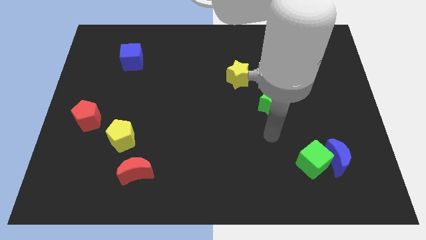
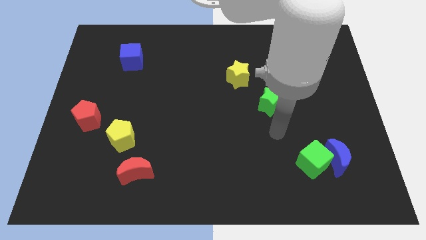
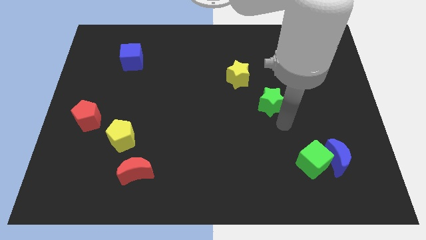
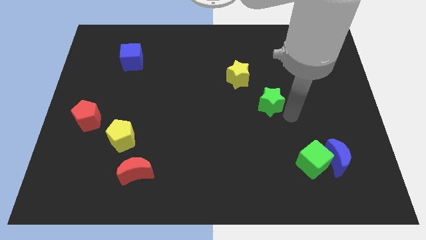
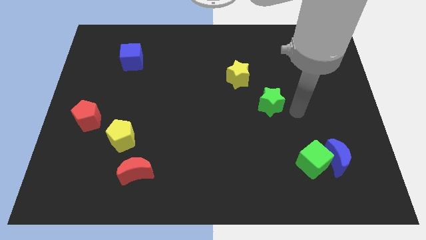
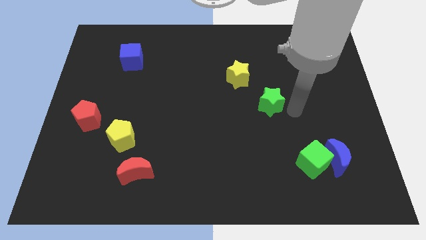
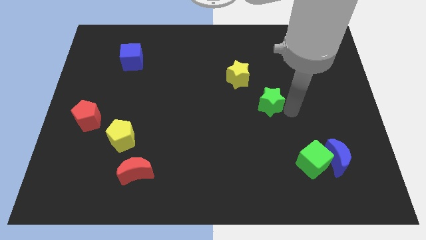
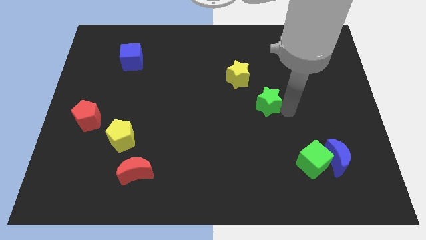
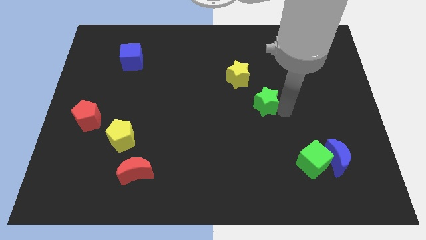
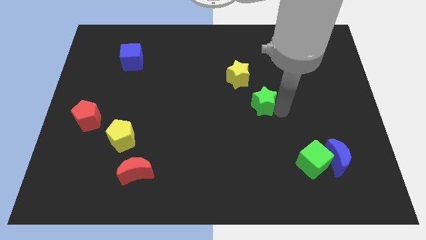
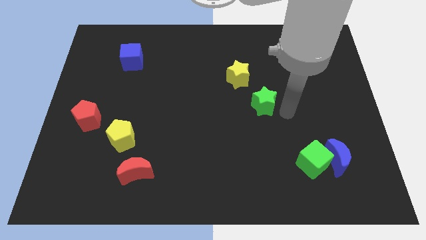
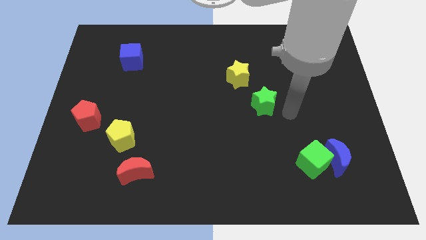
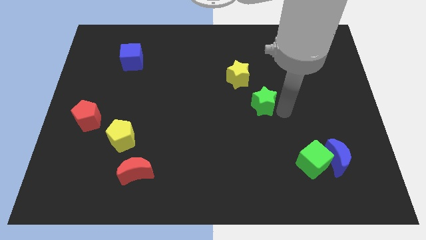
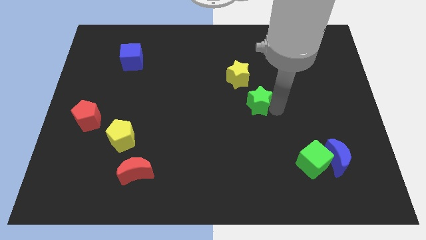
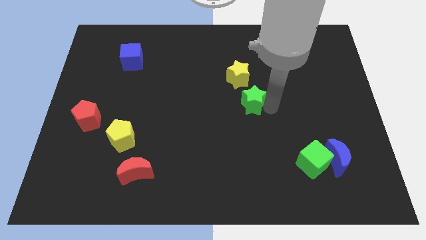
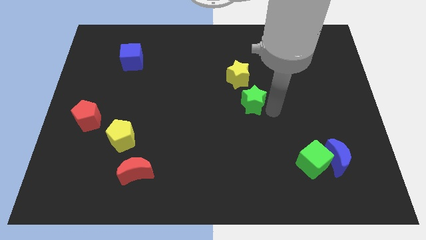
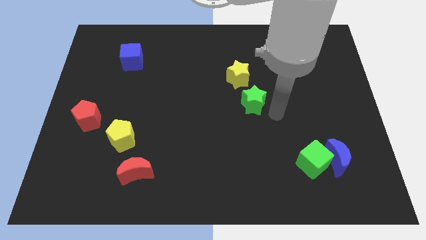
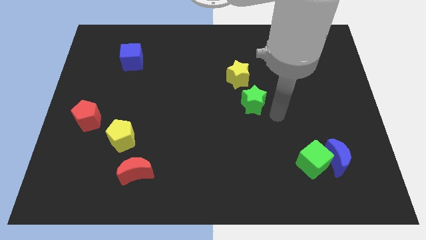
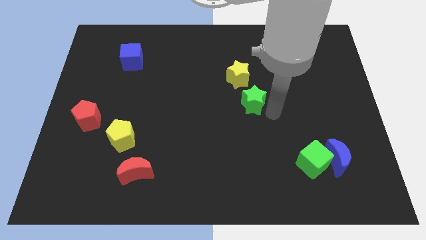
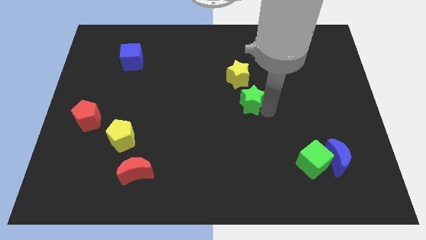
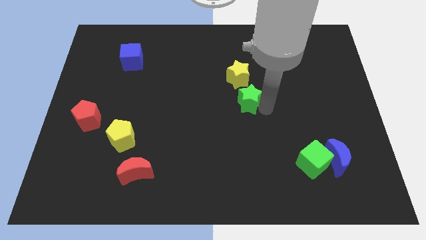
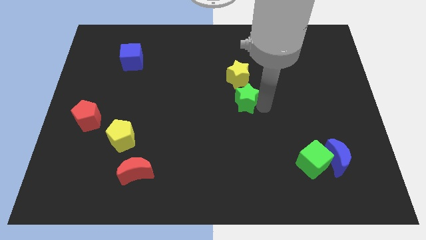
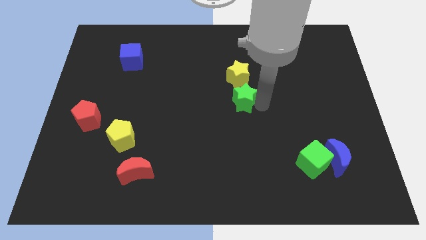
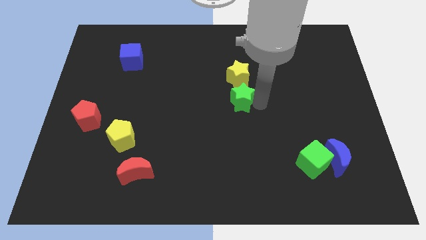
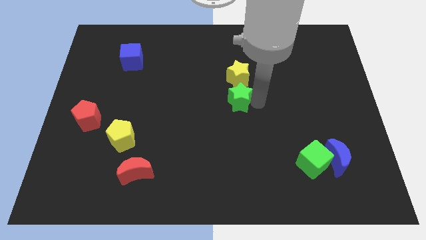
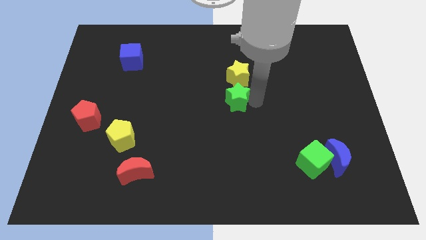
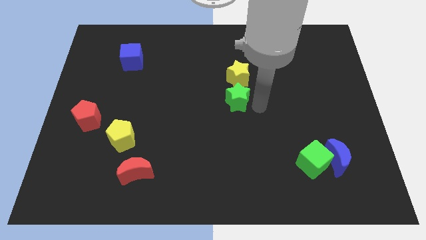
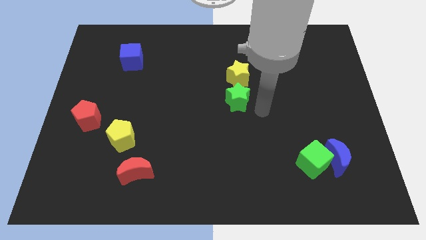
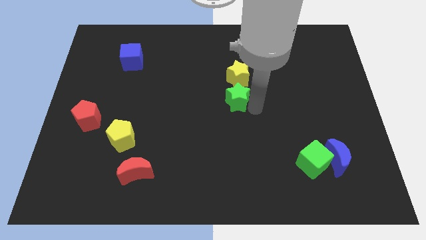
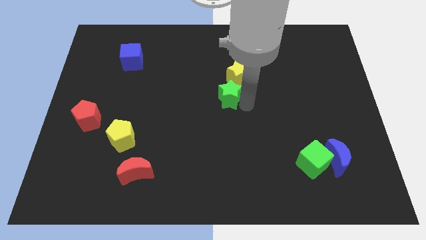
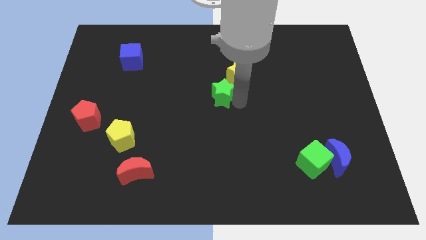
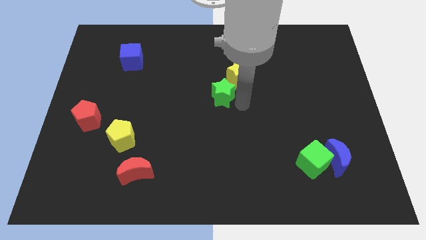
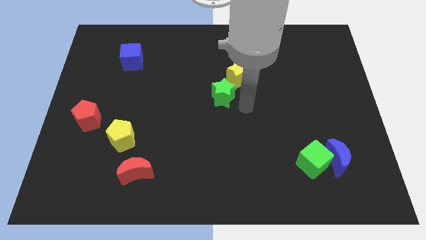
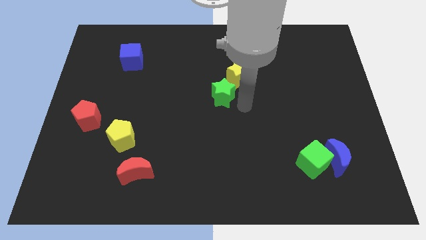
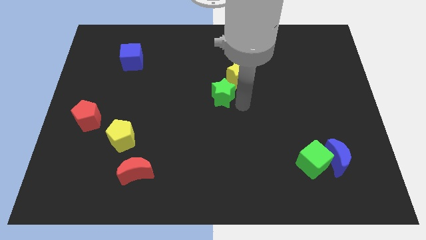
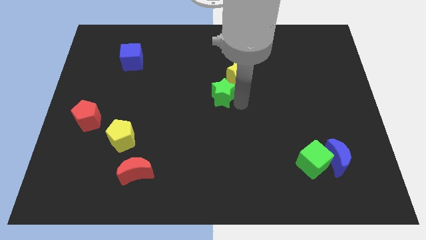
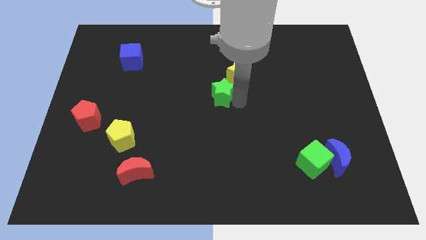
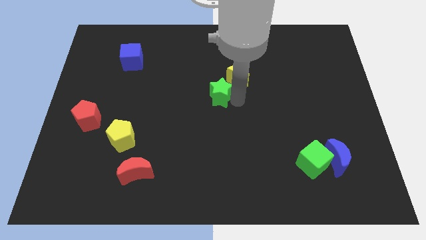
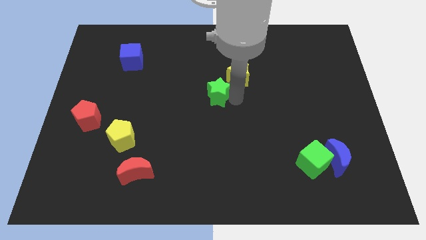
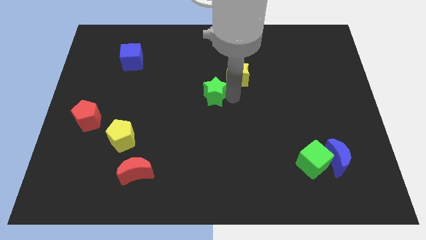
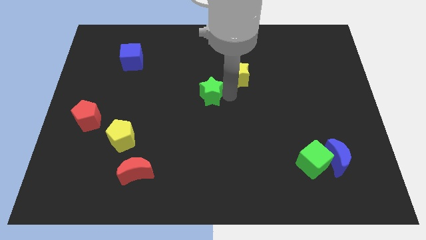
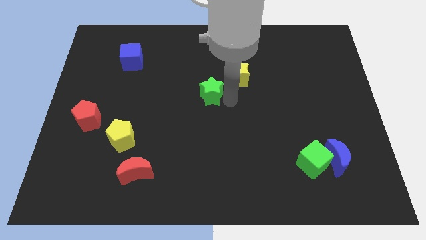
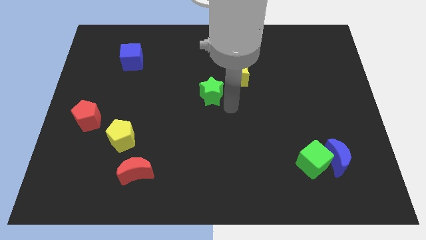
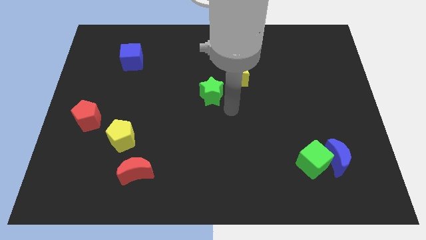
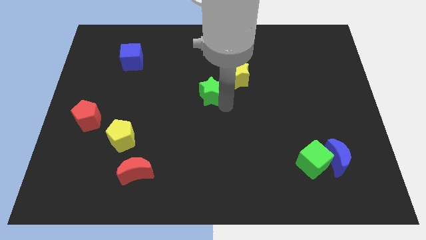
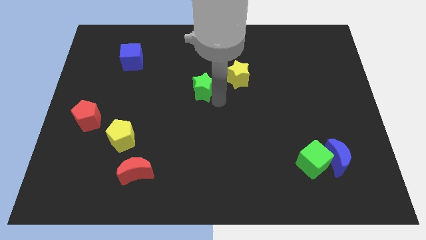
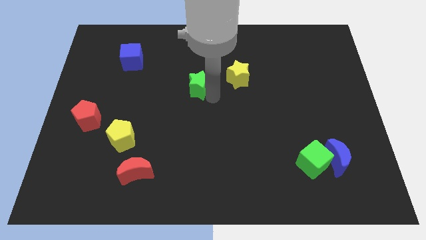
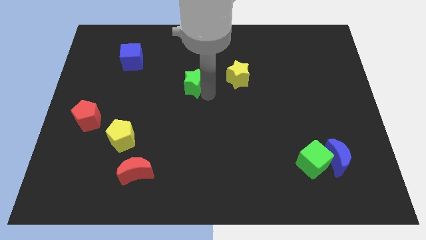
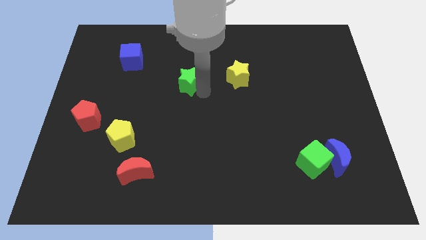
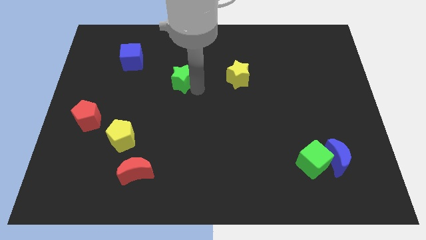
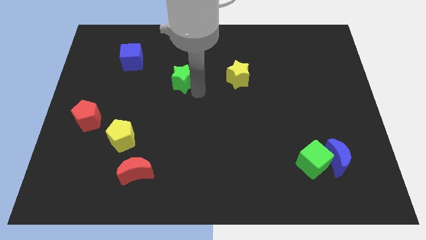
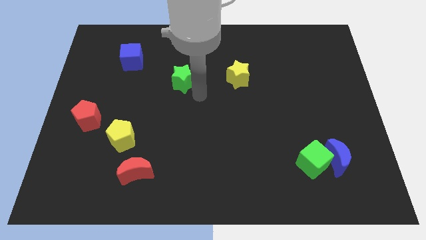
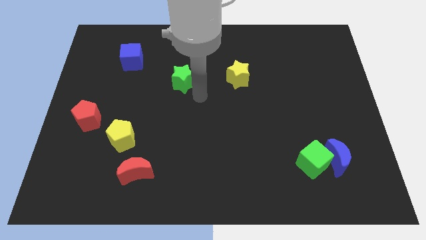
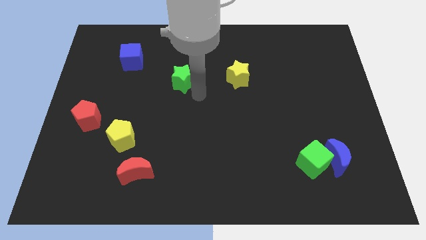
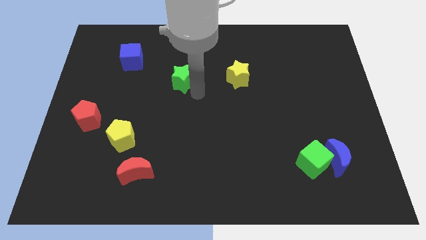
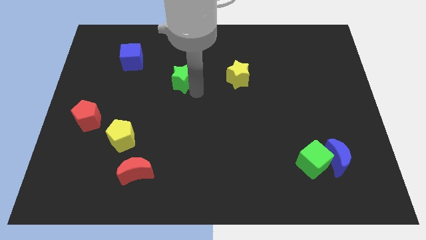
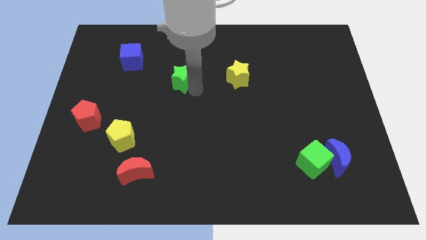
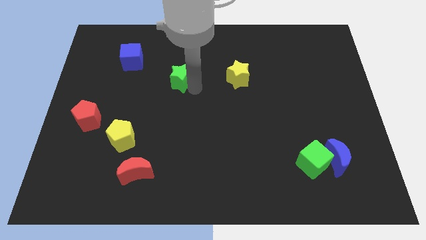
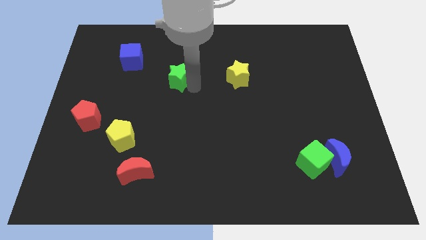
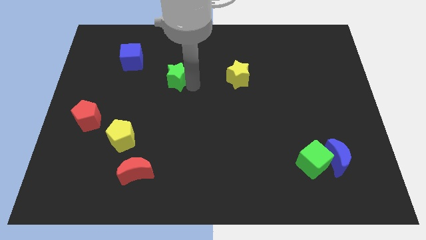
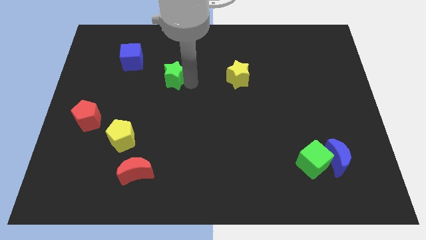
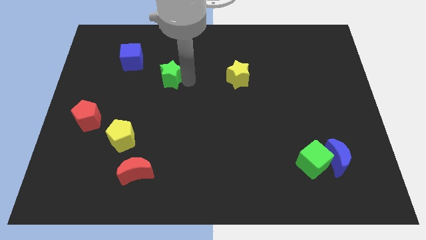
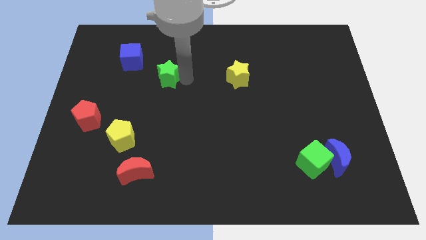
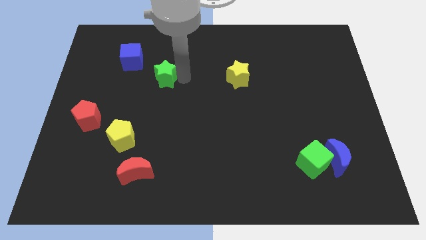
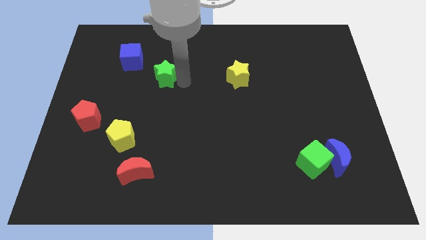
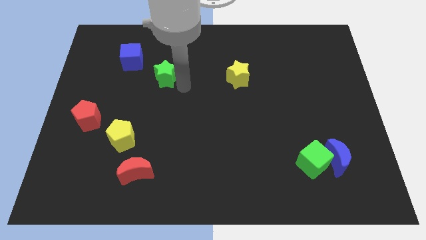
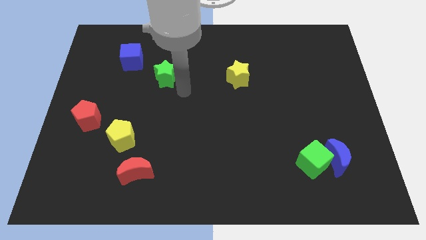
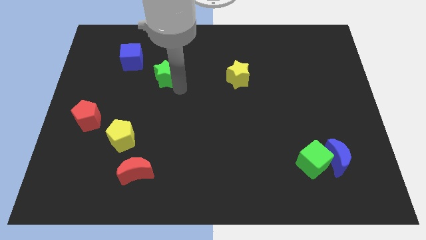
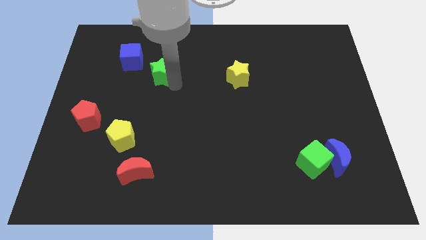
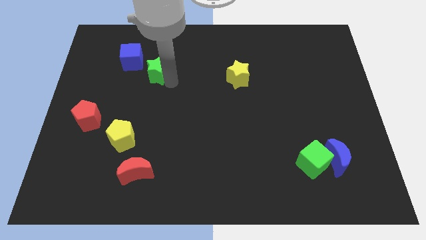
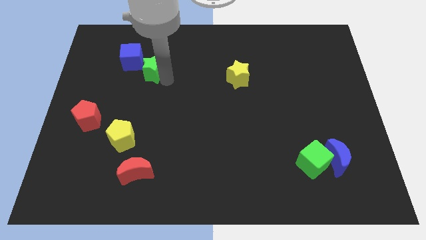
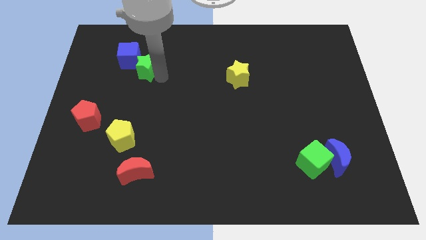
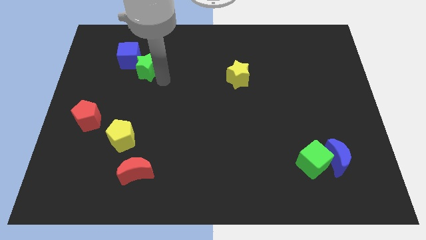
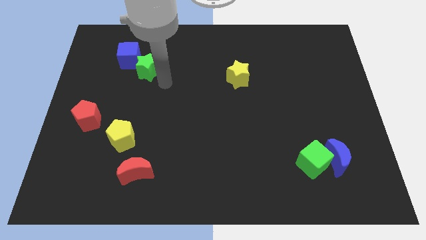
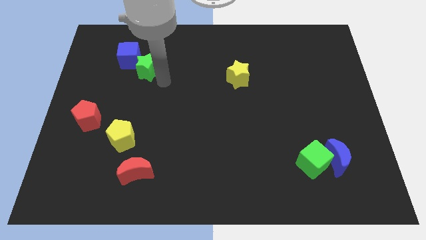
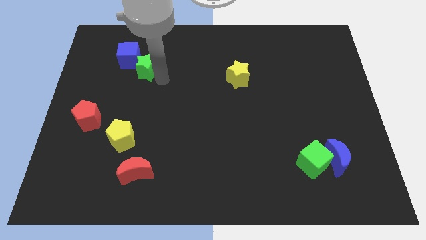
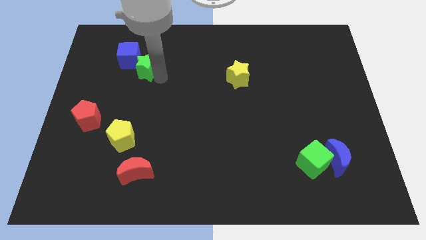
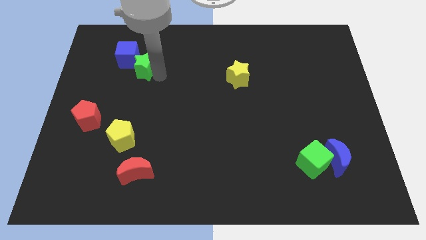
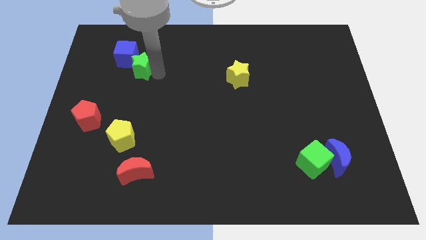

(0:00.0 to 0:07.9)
slide the green star to the blue cube
